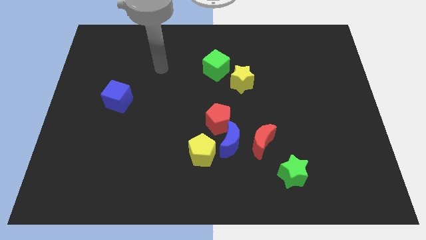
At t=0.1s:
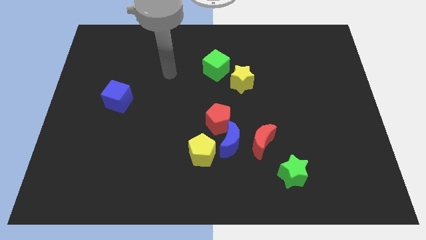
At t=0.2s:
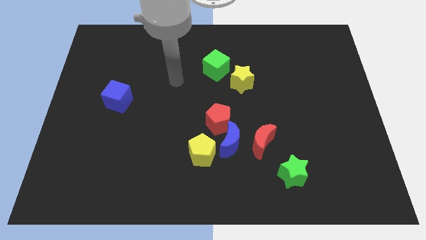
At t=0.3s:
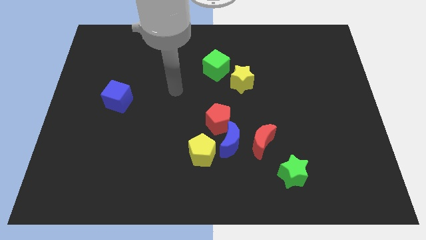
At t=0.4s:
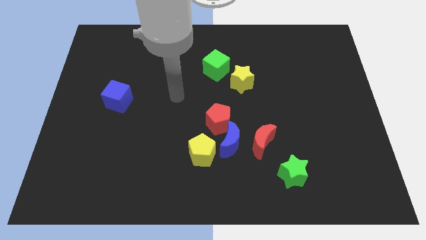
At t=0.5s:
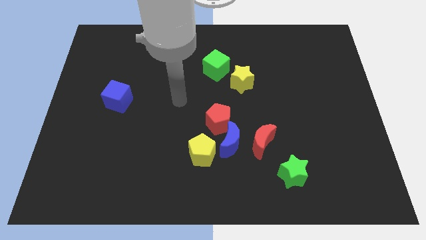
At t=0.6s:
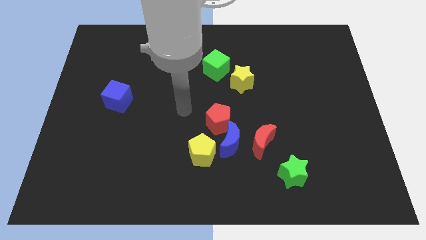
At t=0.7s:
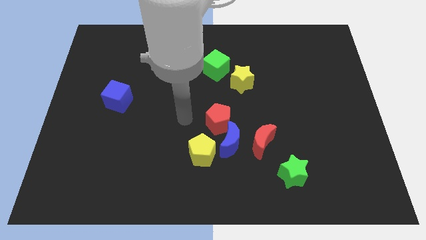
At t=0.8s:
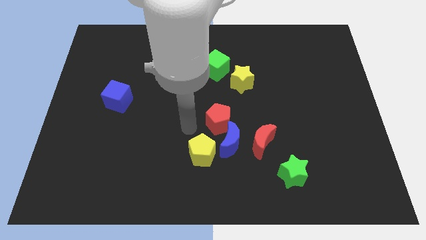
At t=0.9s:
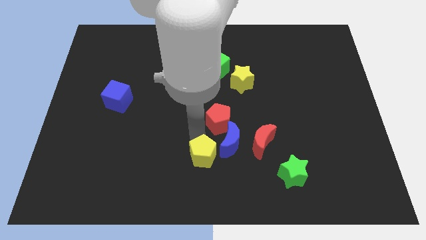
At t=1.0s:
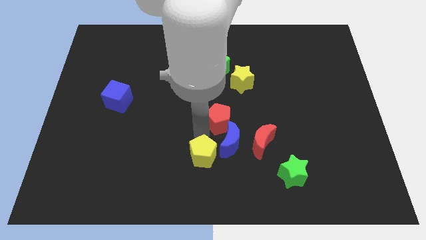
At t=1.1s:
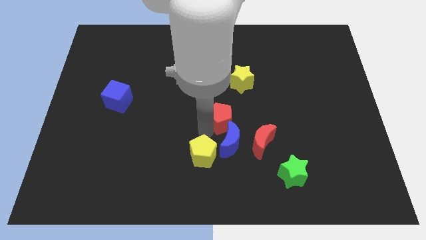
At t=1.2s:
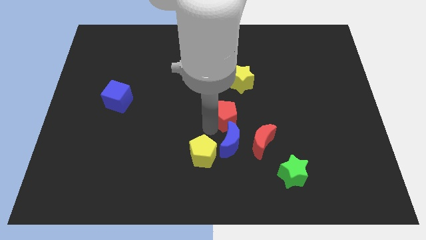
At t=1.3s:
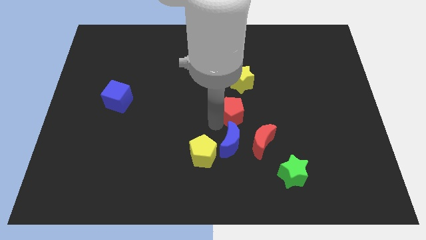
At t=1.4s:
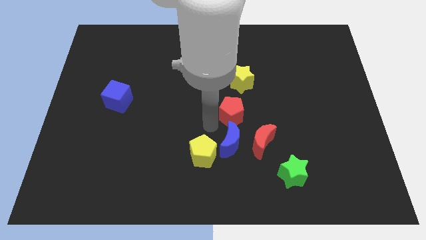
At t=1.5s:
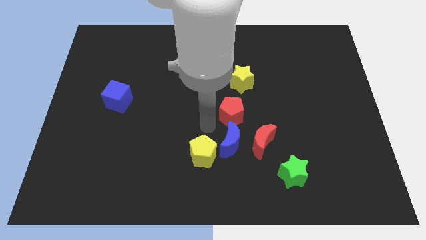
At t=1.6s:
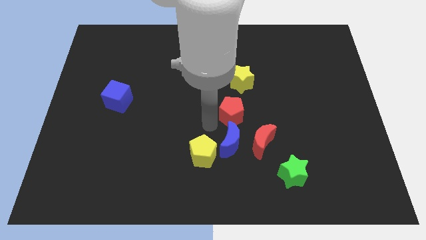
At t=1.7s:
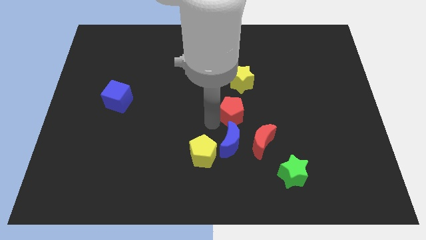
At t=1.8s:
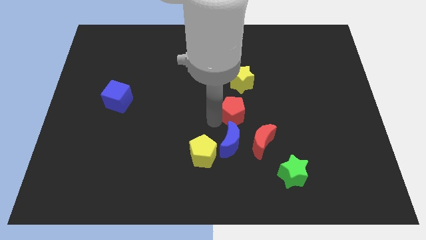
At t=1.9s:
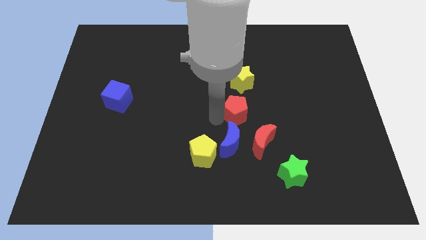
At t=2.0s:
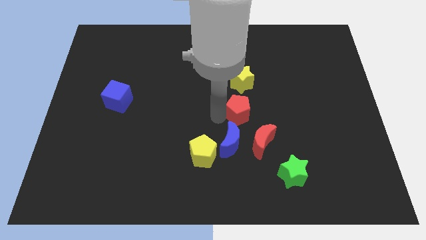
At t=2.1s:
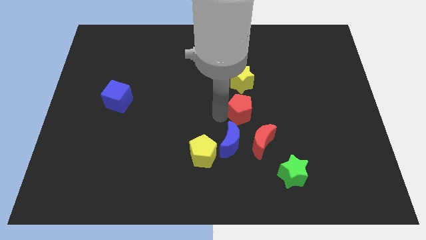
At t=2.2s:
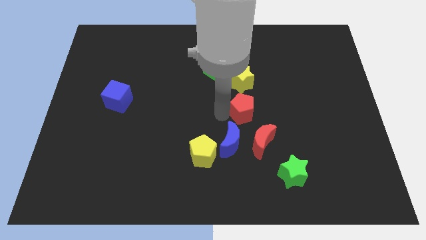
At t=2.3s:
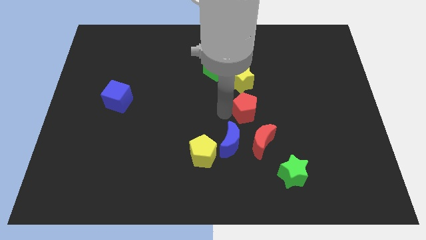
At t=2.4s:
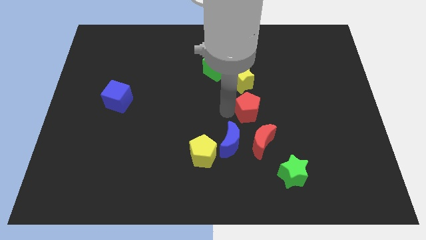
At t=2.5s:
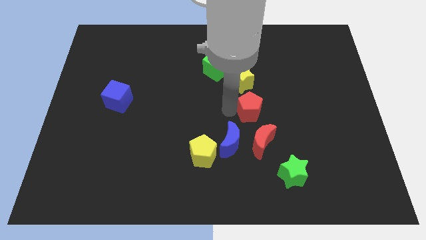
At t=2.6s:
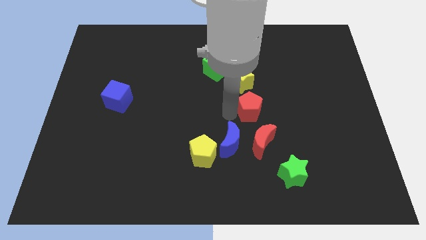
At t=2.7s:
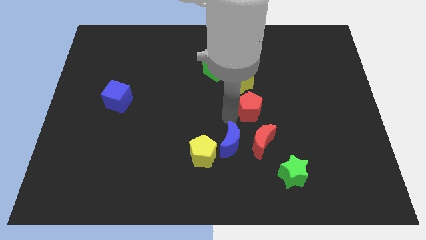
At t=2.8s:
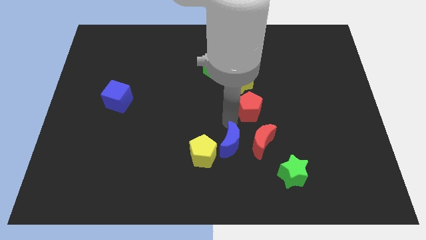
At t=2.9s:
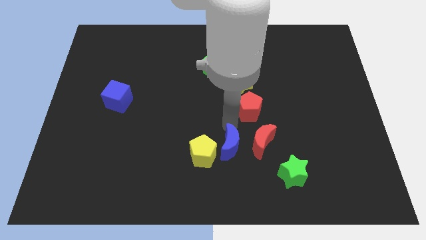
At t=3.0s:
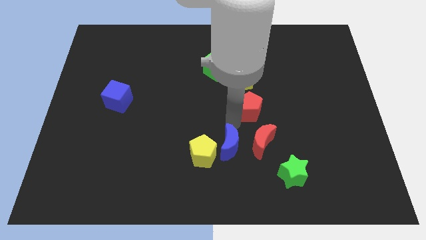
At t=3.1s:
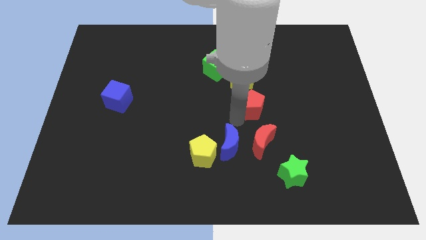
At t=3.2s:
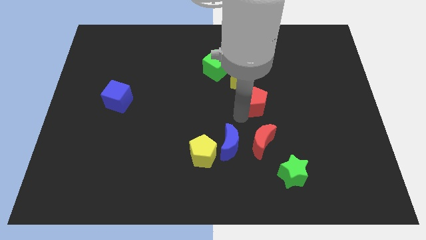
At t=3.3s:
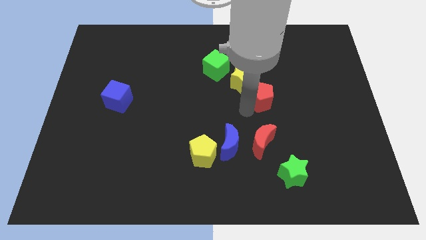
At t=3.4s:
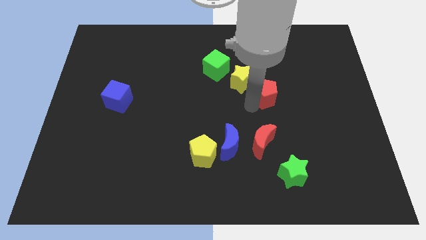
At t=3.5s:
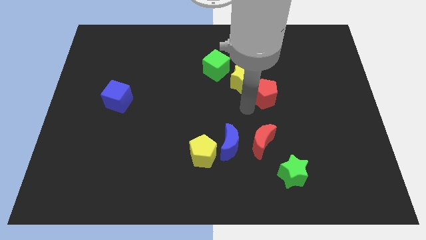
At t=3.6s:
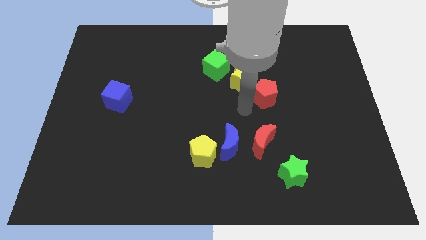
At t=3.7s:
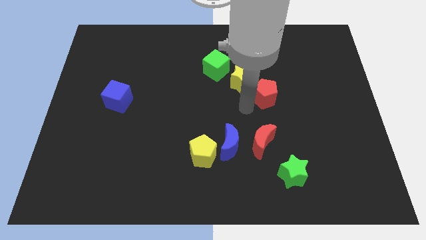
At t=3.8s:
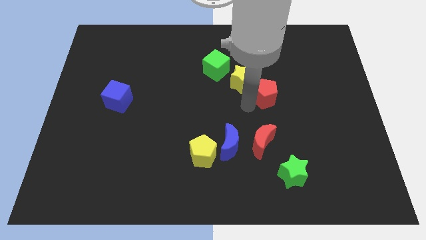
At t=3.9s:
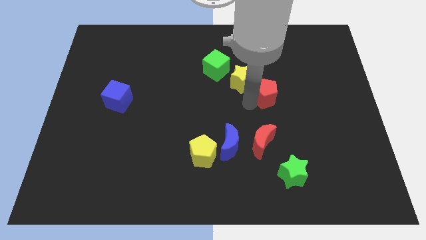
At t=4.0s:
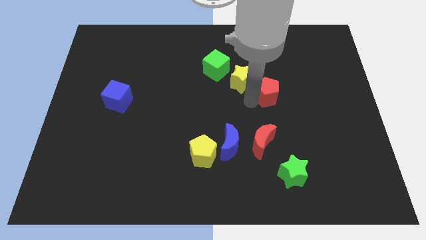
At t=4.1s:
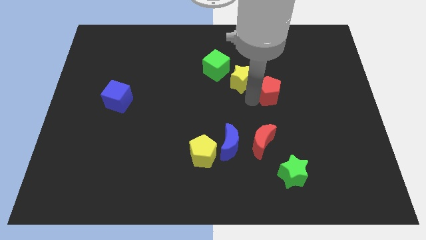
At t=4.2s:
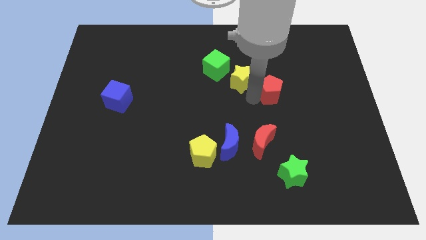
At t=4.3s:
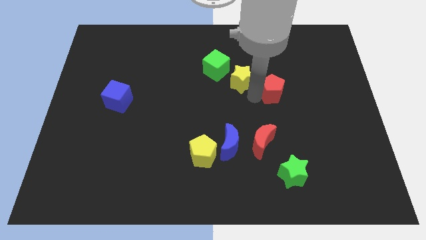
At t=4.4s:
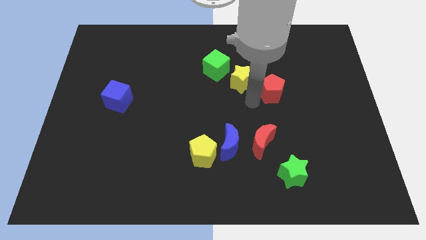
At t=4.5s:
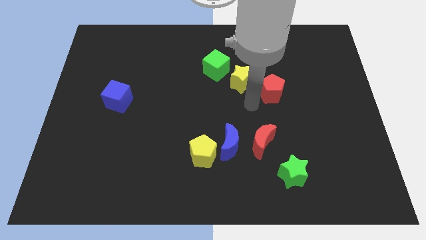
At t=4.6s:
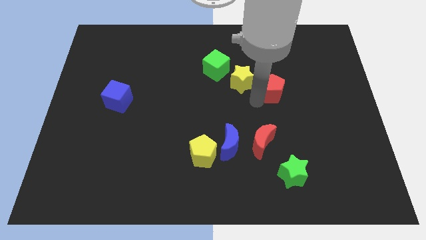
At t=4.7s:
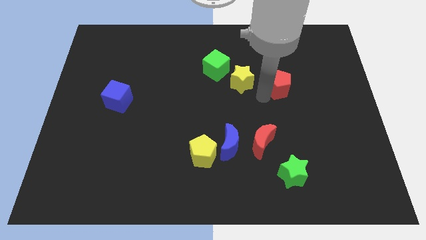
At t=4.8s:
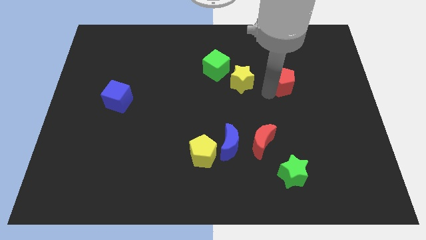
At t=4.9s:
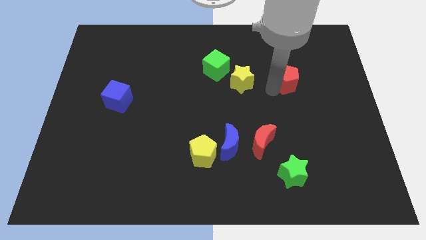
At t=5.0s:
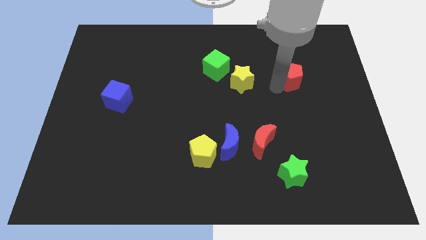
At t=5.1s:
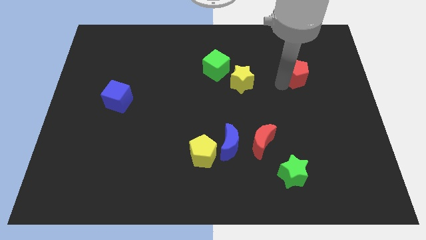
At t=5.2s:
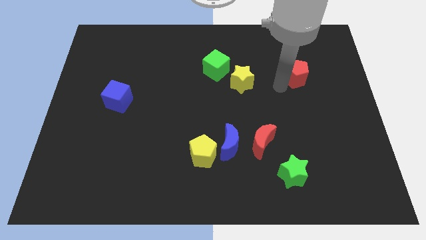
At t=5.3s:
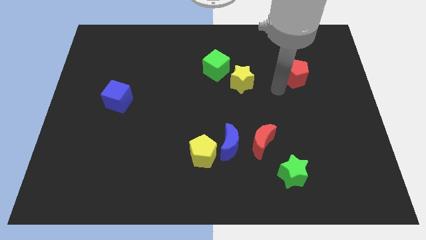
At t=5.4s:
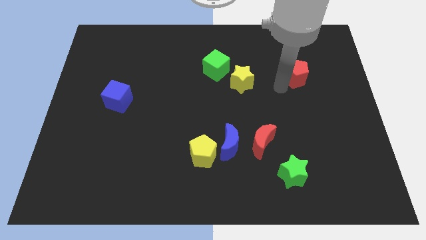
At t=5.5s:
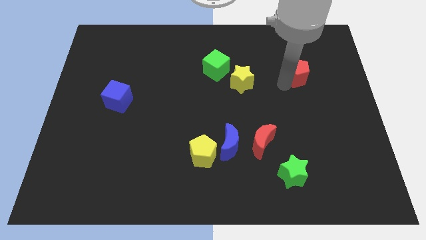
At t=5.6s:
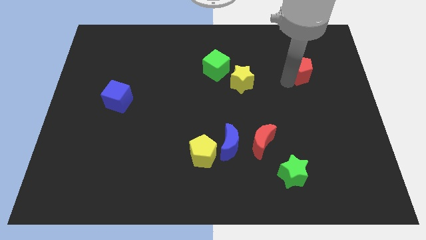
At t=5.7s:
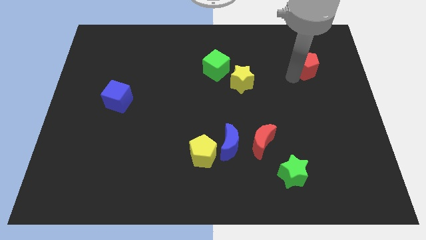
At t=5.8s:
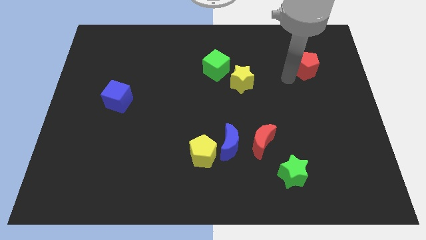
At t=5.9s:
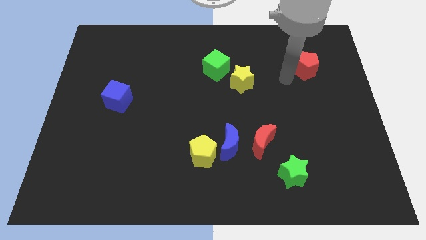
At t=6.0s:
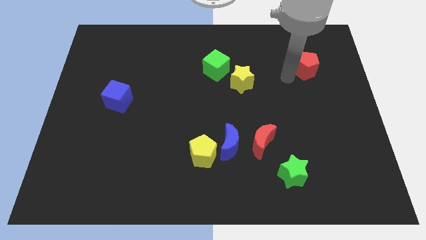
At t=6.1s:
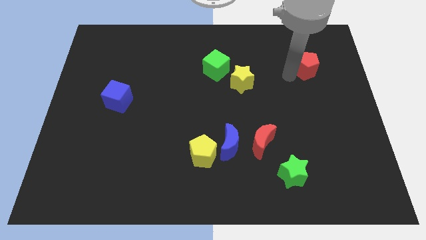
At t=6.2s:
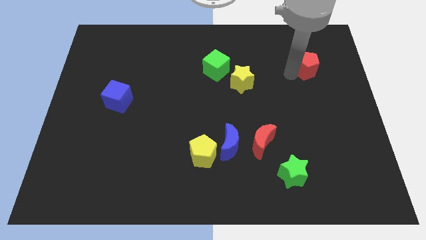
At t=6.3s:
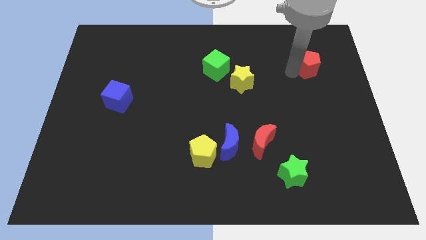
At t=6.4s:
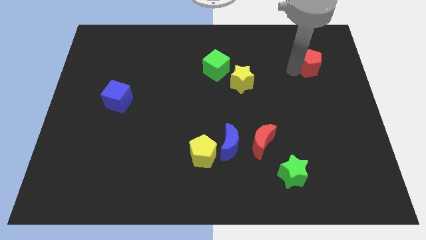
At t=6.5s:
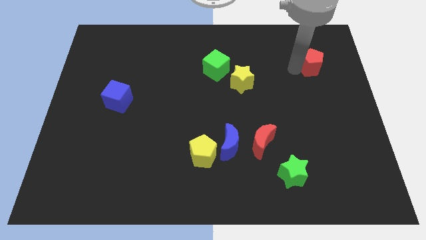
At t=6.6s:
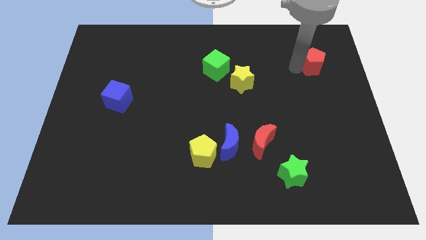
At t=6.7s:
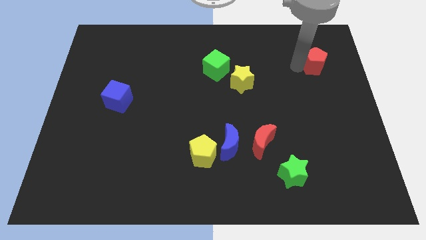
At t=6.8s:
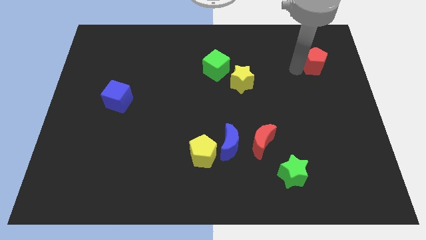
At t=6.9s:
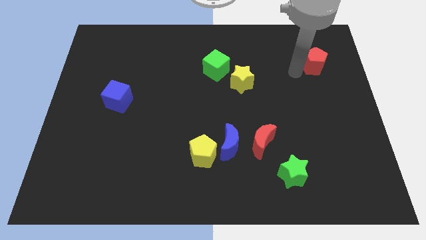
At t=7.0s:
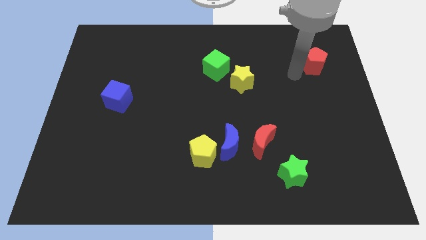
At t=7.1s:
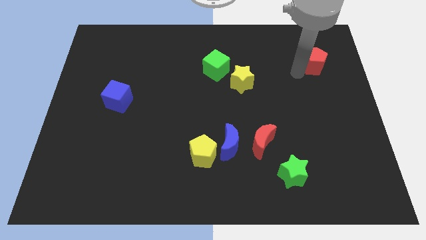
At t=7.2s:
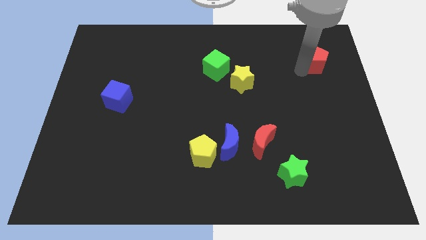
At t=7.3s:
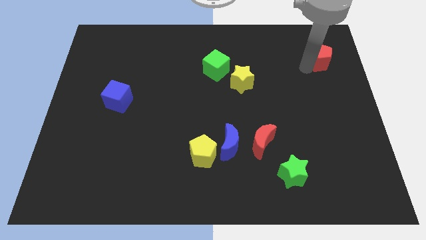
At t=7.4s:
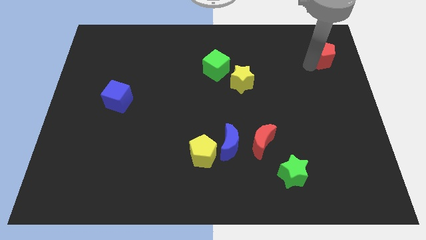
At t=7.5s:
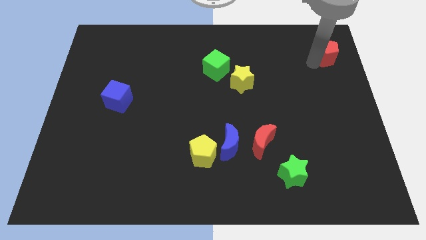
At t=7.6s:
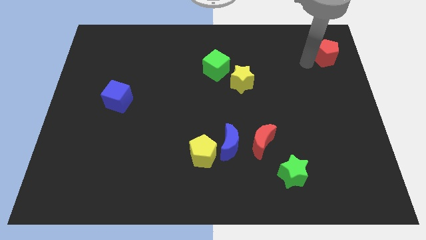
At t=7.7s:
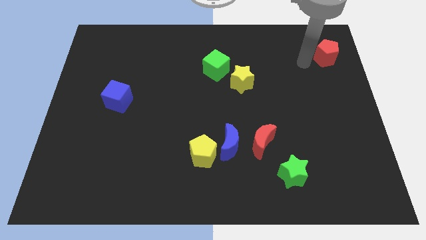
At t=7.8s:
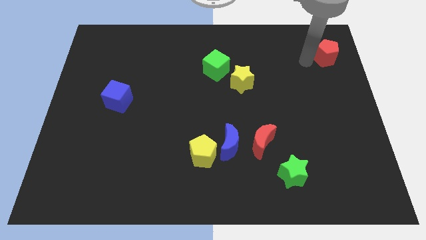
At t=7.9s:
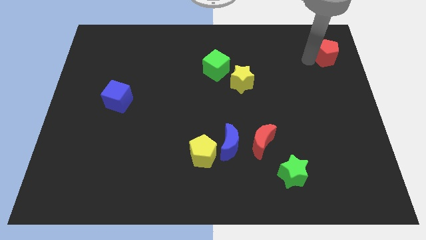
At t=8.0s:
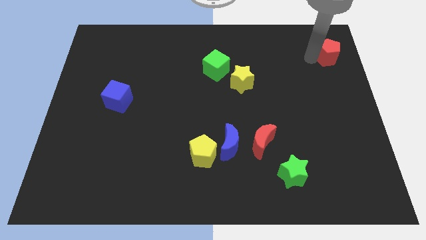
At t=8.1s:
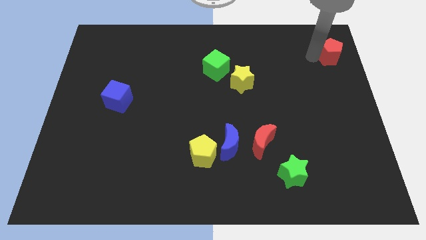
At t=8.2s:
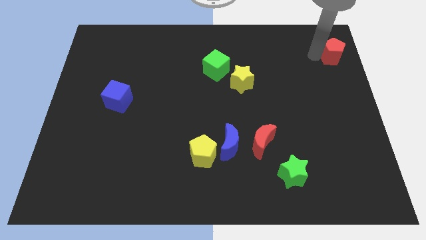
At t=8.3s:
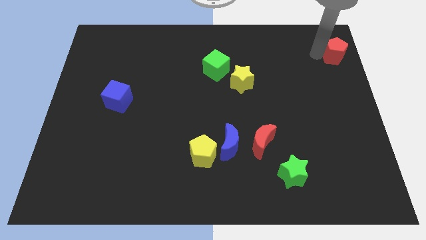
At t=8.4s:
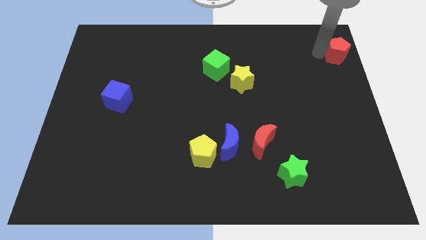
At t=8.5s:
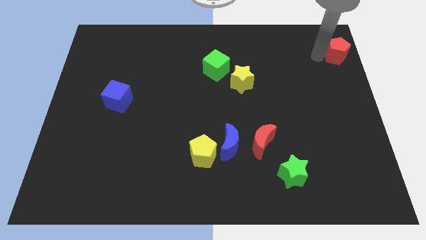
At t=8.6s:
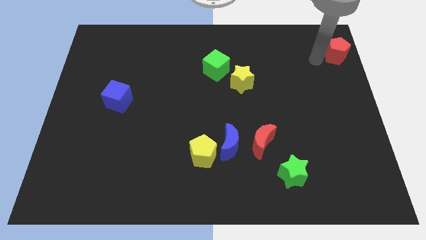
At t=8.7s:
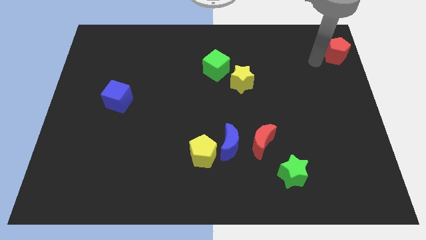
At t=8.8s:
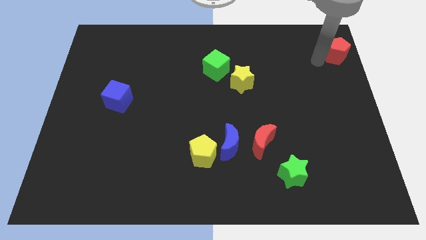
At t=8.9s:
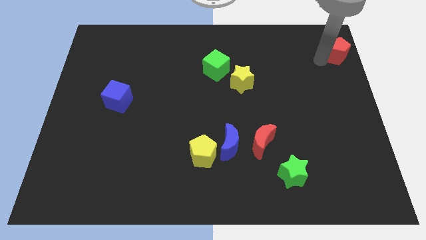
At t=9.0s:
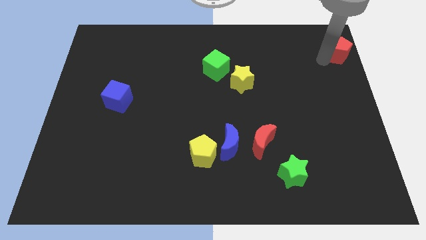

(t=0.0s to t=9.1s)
put the red pentagon to the top right of the board
